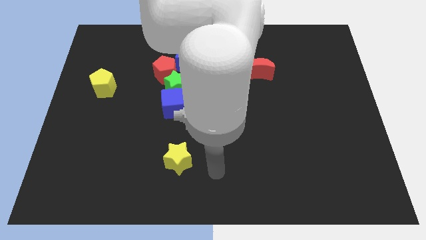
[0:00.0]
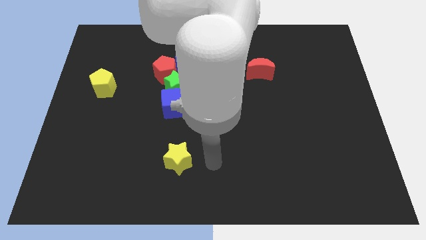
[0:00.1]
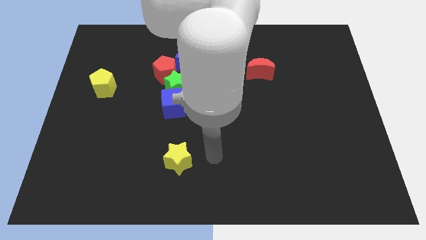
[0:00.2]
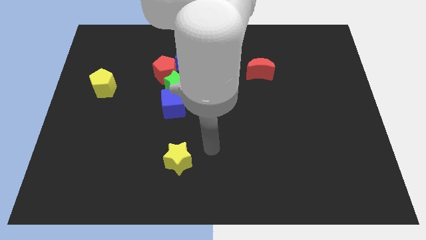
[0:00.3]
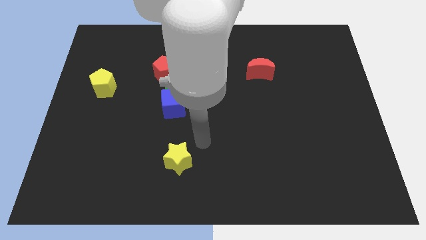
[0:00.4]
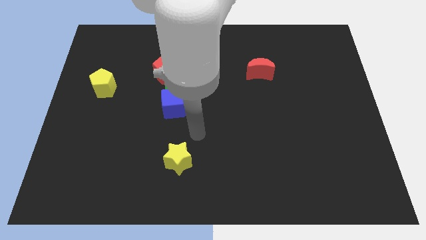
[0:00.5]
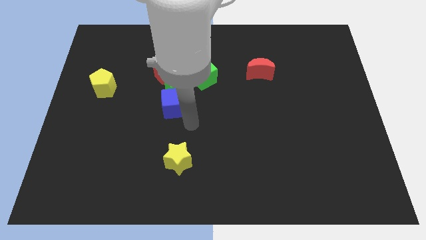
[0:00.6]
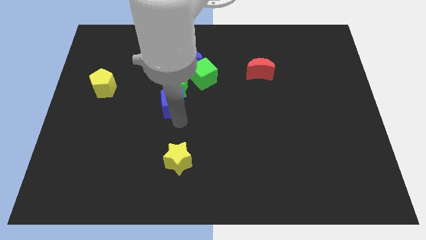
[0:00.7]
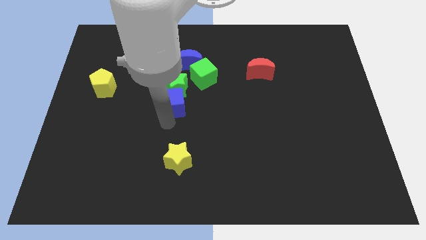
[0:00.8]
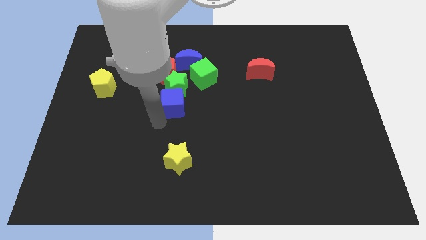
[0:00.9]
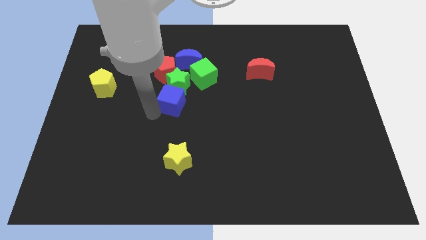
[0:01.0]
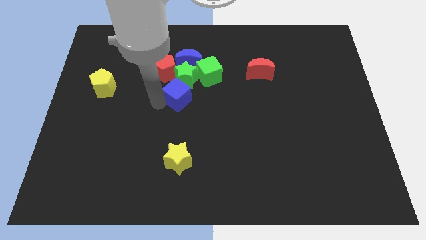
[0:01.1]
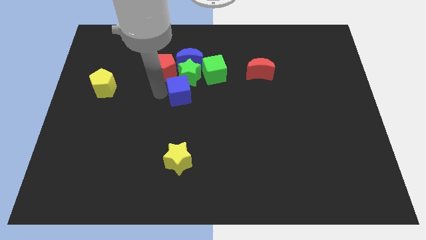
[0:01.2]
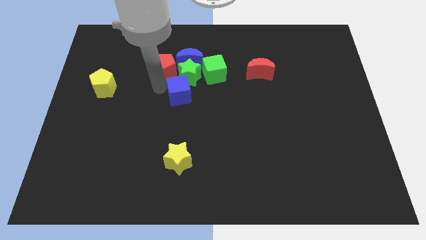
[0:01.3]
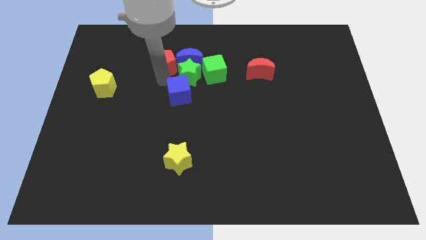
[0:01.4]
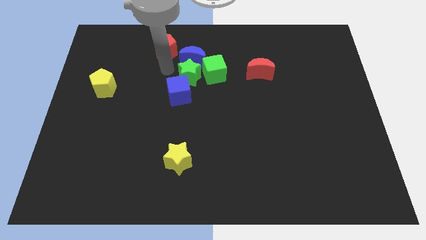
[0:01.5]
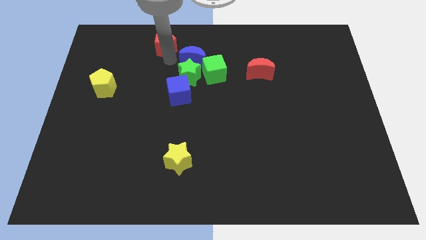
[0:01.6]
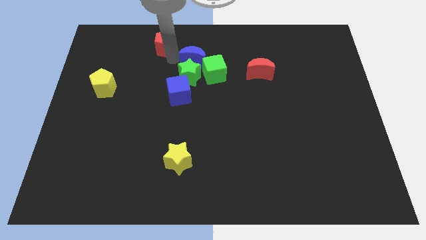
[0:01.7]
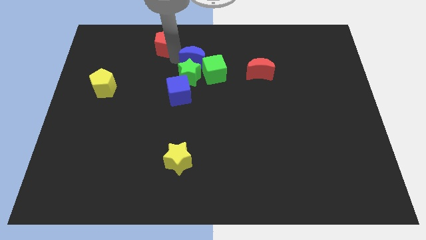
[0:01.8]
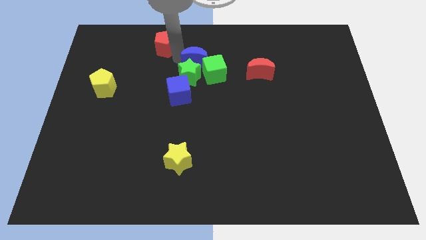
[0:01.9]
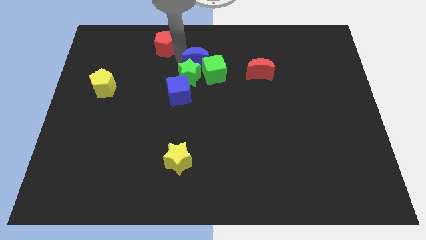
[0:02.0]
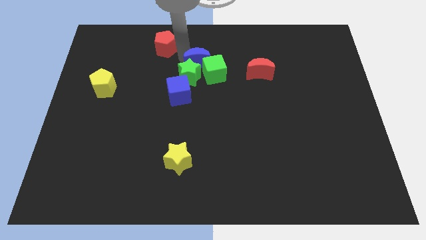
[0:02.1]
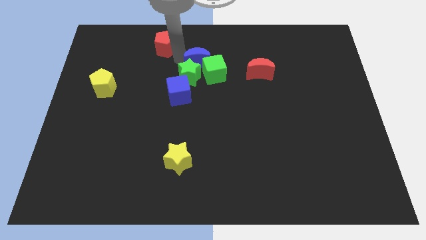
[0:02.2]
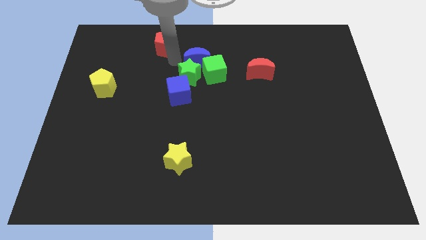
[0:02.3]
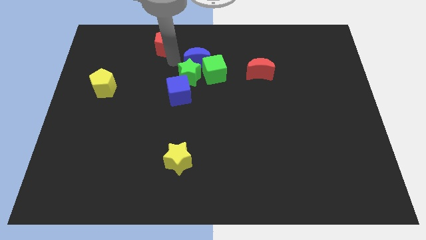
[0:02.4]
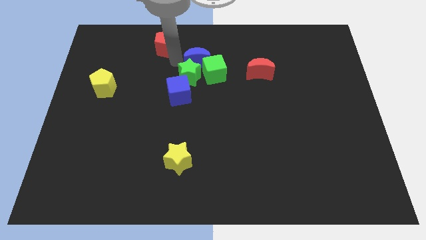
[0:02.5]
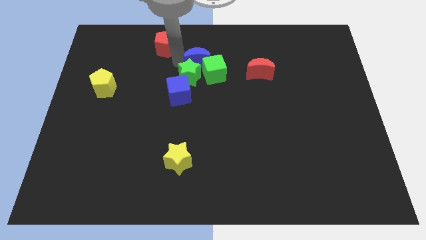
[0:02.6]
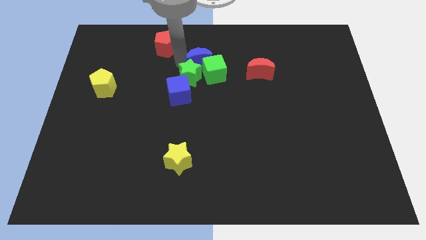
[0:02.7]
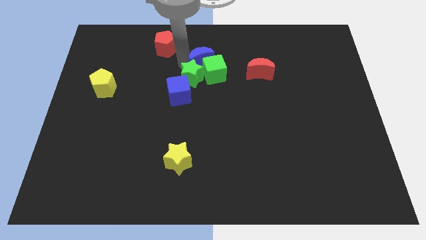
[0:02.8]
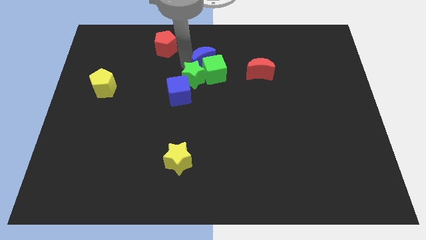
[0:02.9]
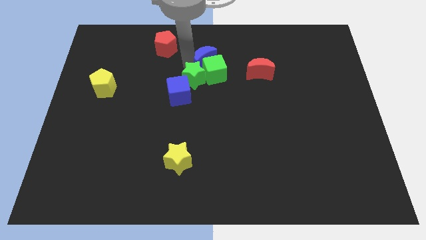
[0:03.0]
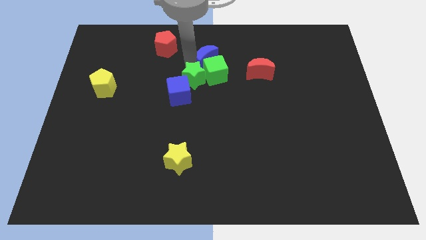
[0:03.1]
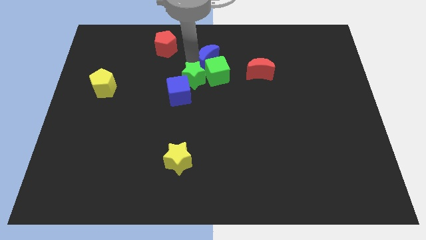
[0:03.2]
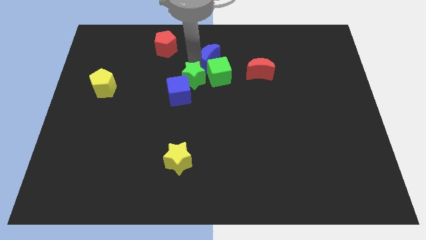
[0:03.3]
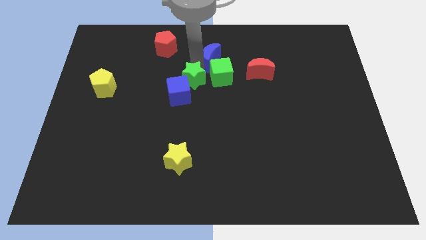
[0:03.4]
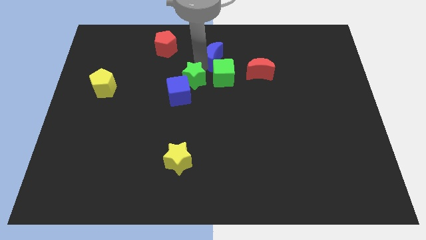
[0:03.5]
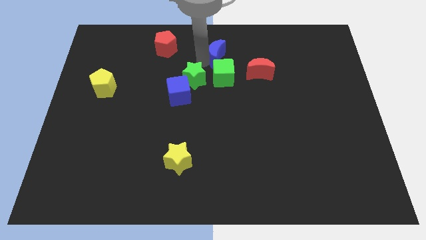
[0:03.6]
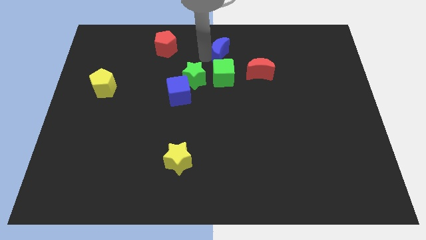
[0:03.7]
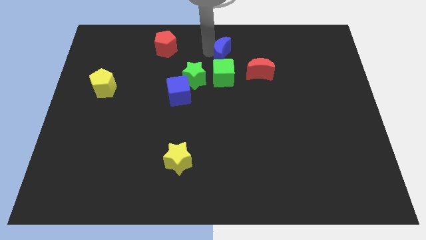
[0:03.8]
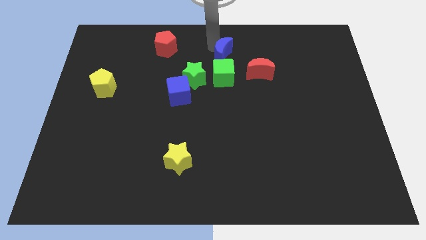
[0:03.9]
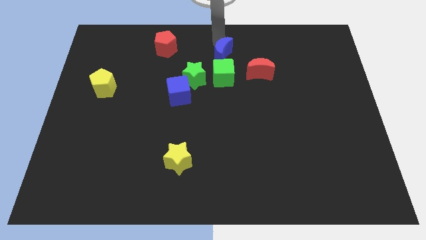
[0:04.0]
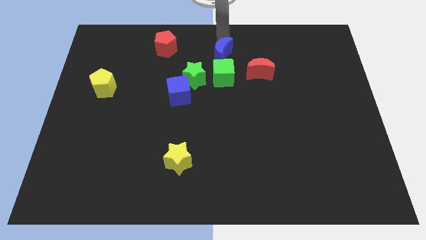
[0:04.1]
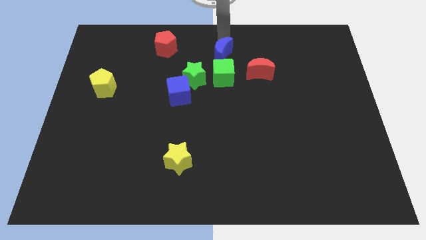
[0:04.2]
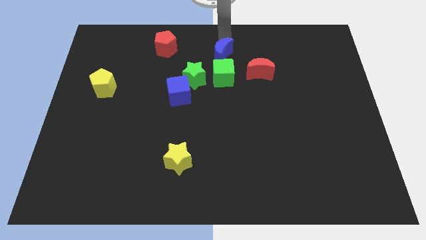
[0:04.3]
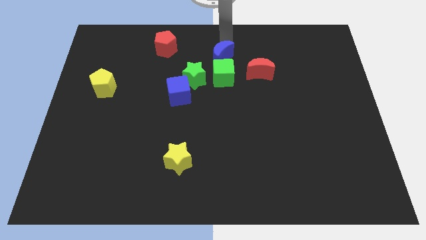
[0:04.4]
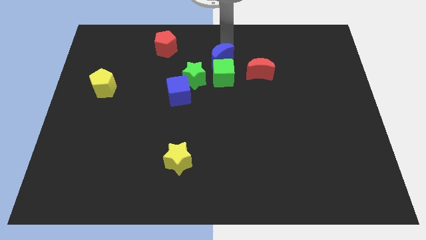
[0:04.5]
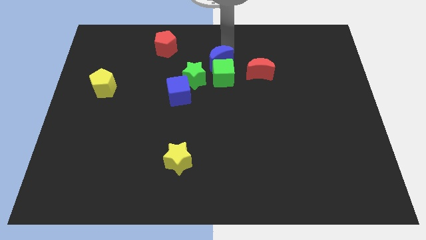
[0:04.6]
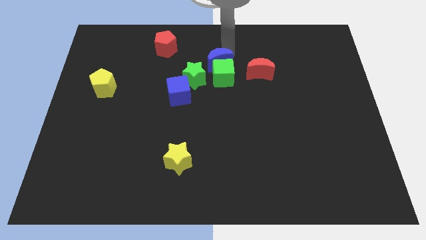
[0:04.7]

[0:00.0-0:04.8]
push the blue moon to the middle

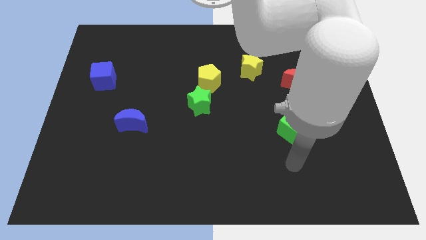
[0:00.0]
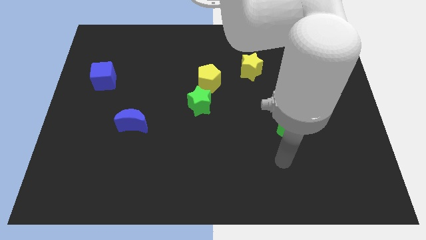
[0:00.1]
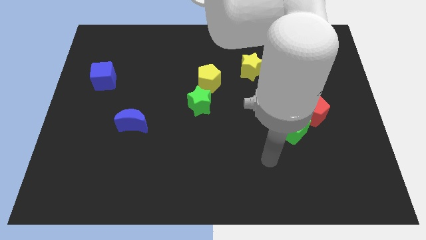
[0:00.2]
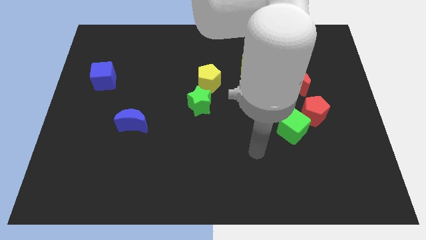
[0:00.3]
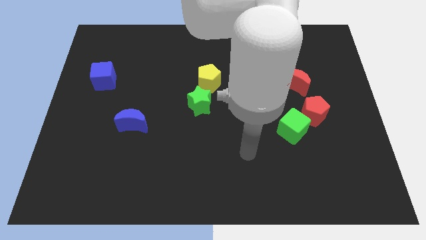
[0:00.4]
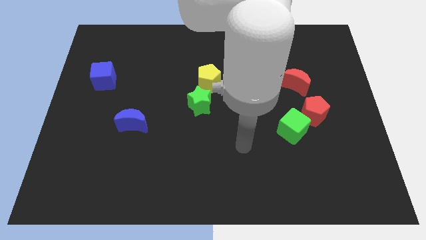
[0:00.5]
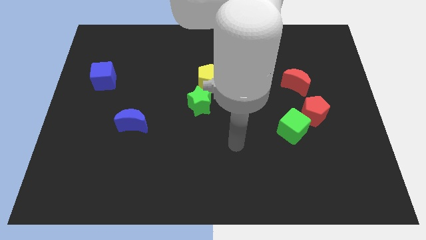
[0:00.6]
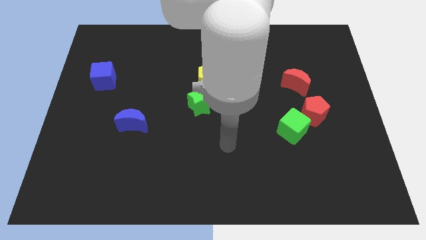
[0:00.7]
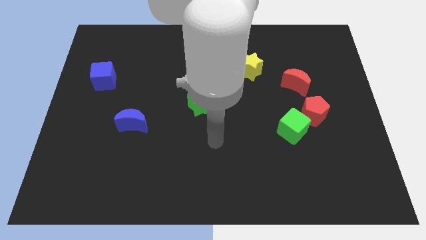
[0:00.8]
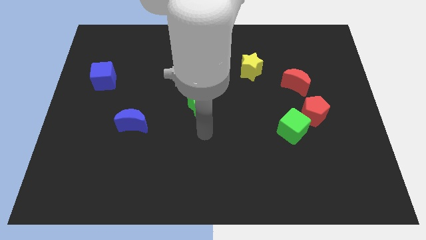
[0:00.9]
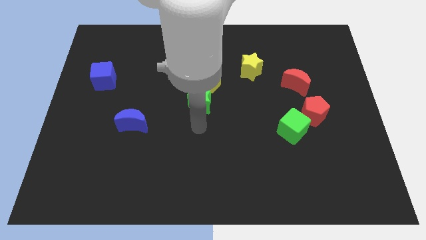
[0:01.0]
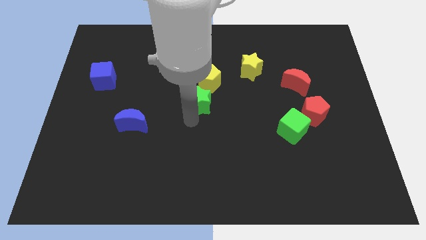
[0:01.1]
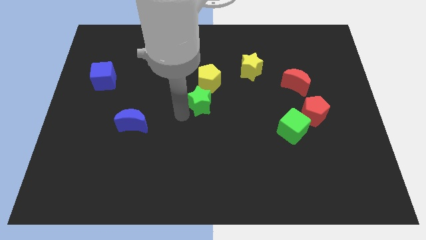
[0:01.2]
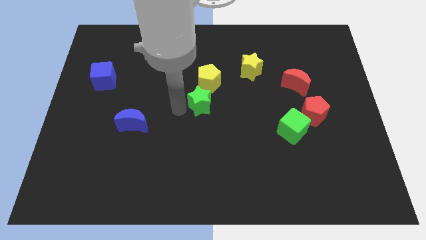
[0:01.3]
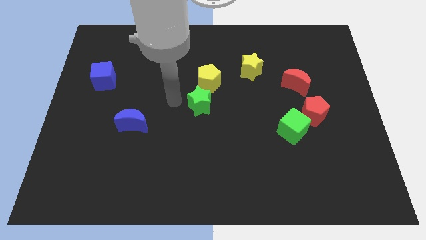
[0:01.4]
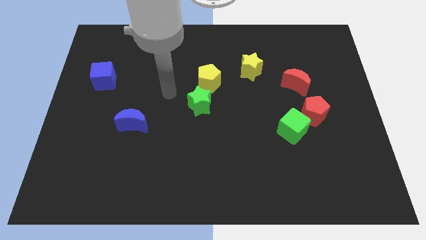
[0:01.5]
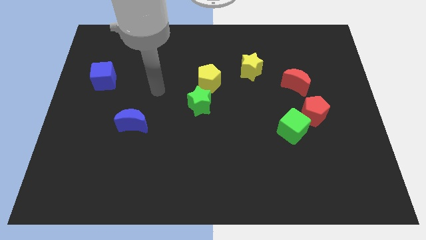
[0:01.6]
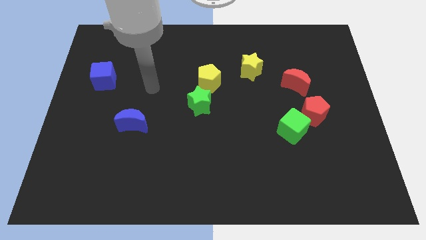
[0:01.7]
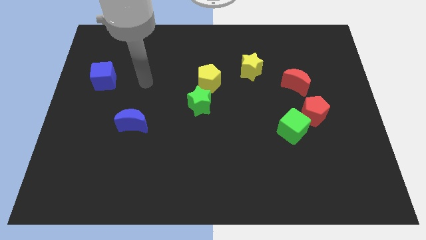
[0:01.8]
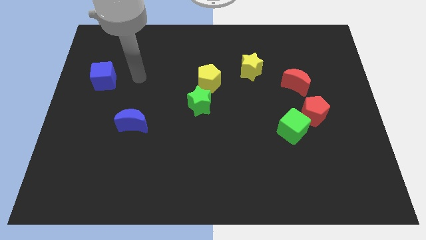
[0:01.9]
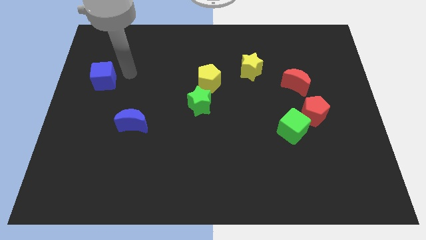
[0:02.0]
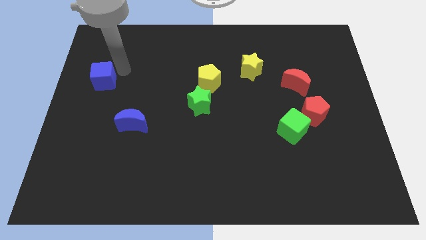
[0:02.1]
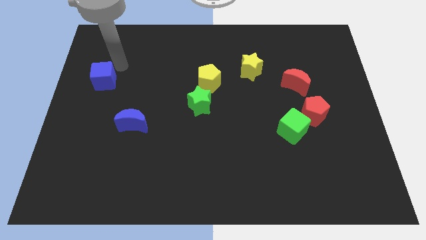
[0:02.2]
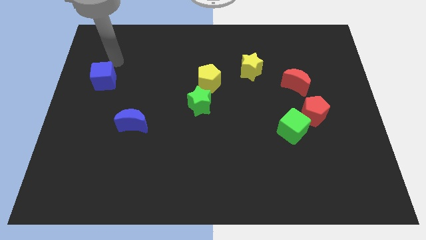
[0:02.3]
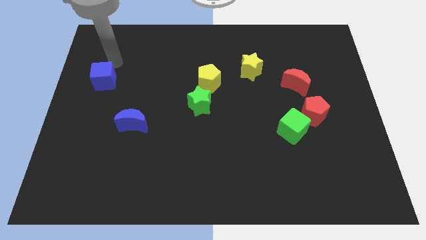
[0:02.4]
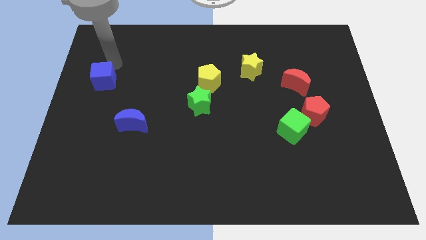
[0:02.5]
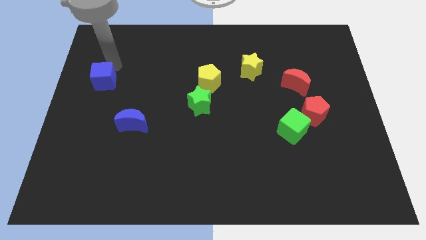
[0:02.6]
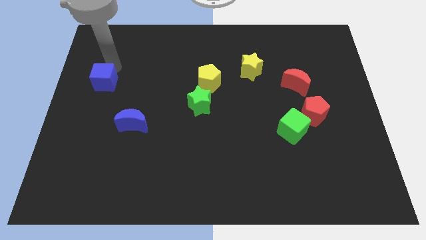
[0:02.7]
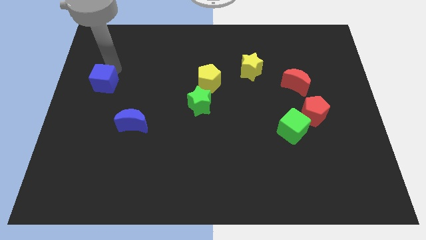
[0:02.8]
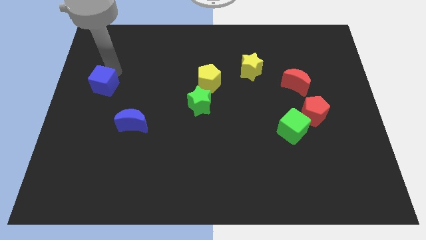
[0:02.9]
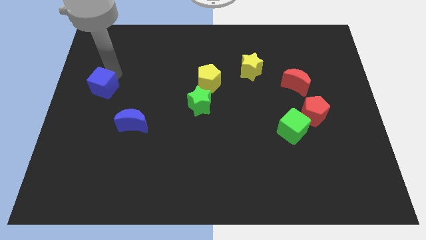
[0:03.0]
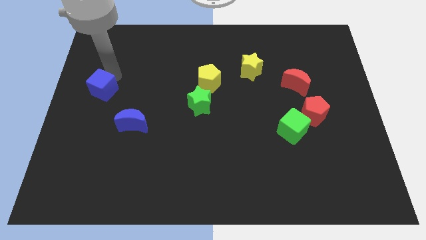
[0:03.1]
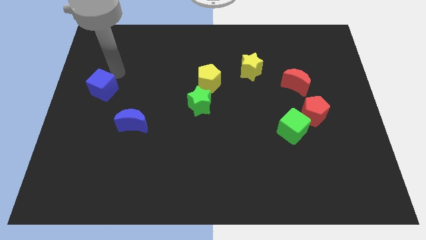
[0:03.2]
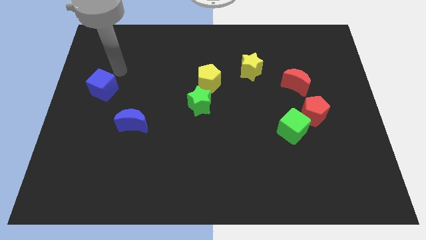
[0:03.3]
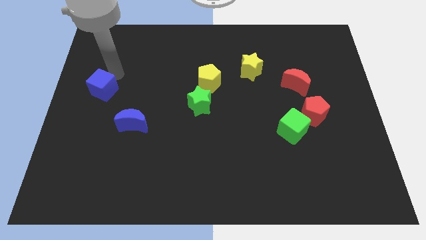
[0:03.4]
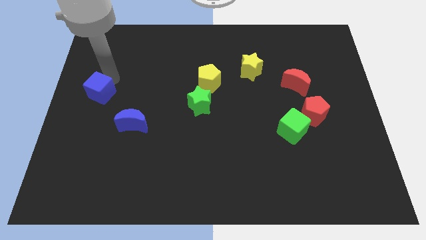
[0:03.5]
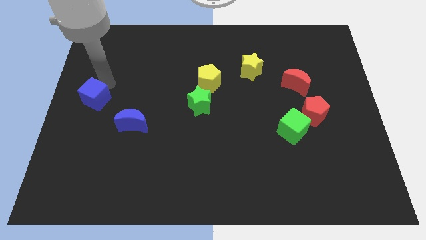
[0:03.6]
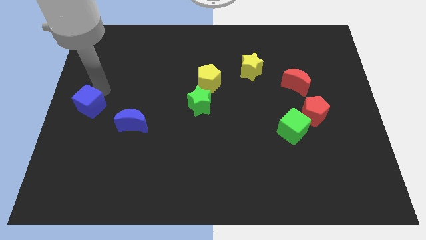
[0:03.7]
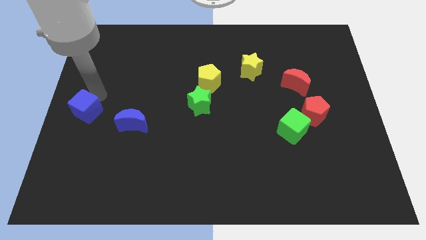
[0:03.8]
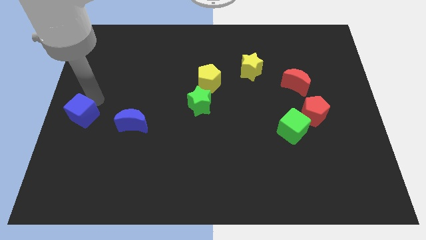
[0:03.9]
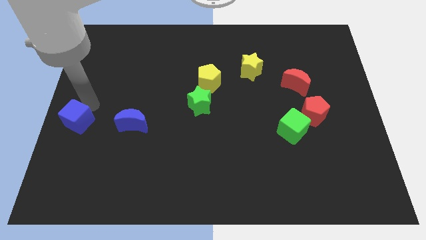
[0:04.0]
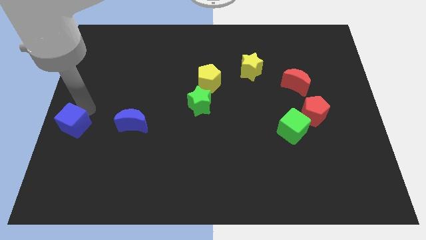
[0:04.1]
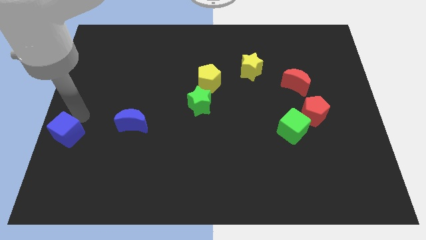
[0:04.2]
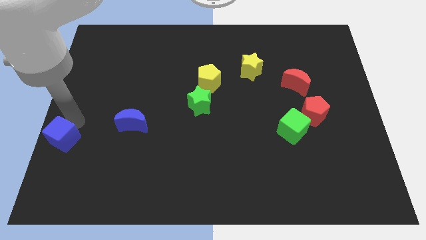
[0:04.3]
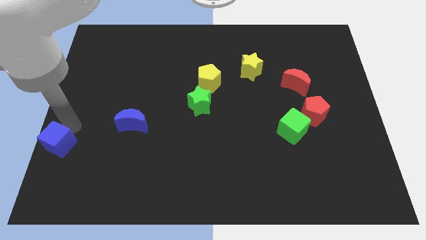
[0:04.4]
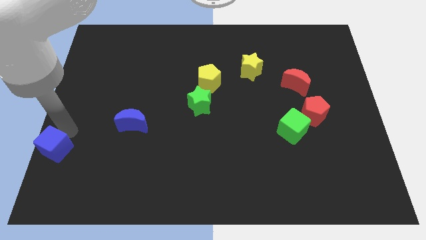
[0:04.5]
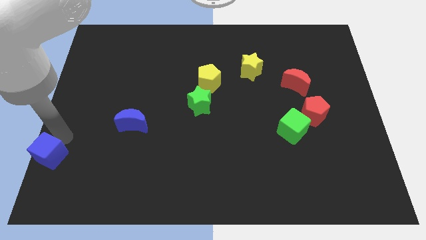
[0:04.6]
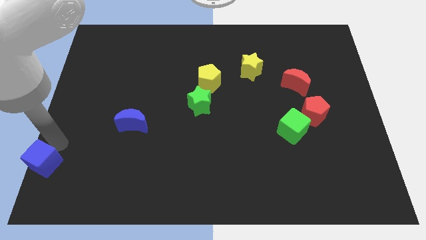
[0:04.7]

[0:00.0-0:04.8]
move the blue cube to the bottom left
